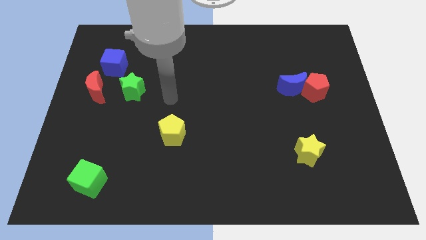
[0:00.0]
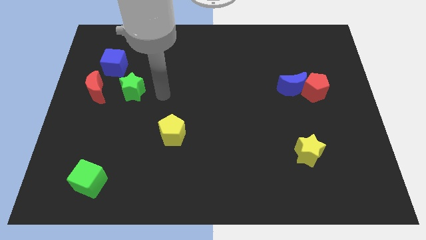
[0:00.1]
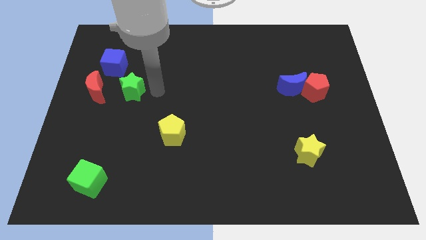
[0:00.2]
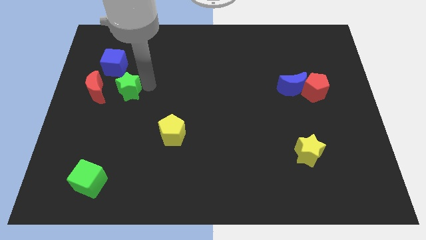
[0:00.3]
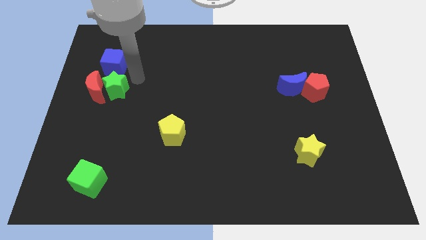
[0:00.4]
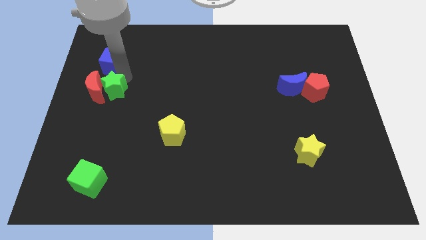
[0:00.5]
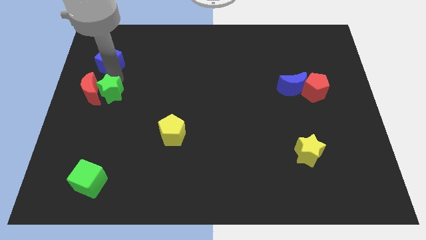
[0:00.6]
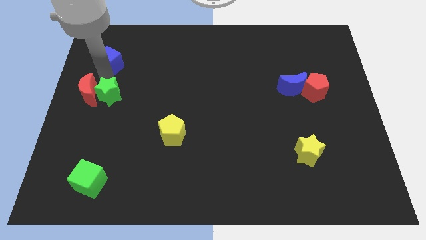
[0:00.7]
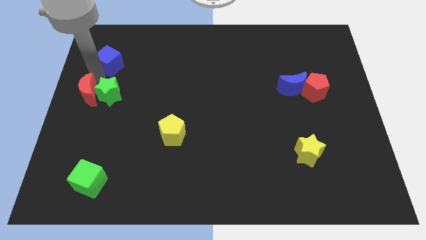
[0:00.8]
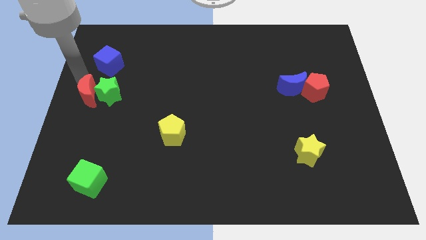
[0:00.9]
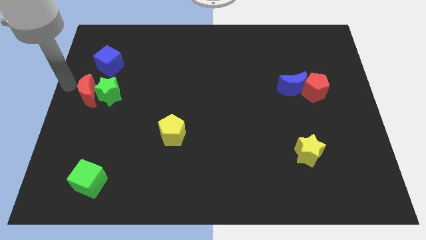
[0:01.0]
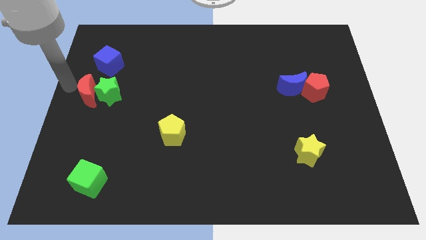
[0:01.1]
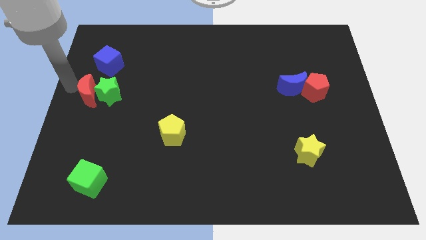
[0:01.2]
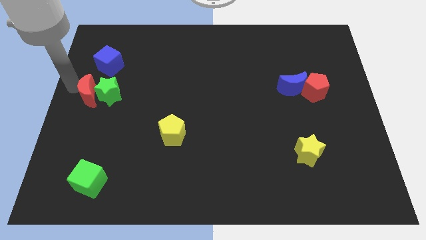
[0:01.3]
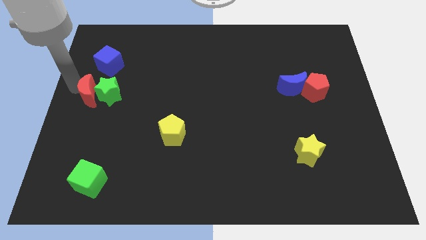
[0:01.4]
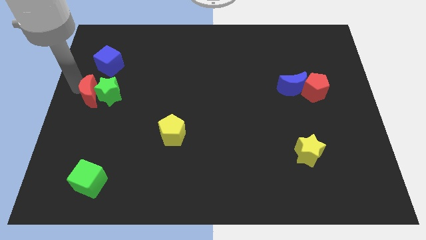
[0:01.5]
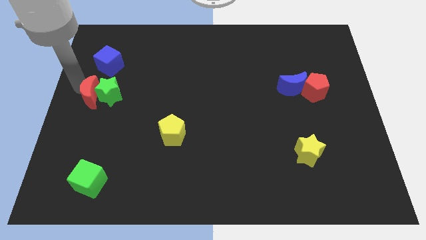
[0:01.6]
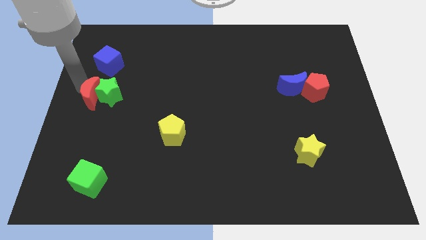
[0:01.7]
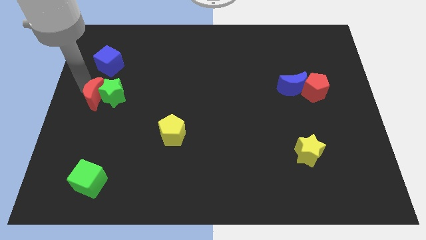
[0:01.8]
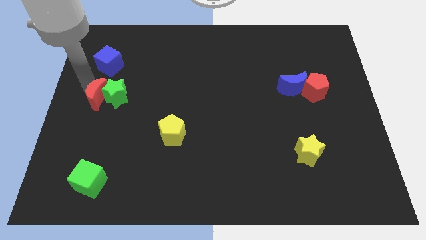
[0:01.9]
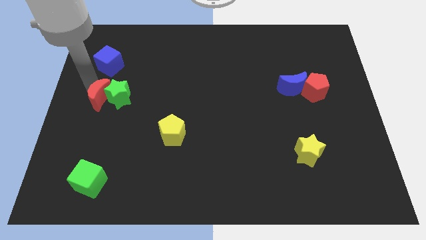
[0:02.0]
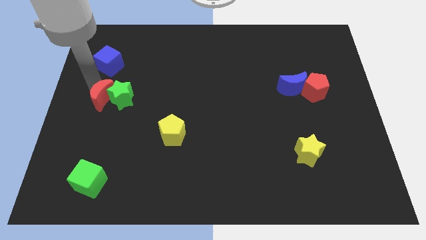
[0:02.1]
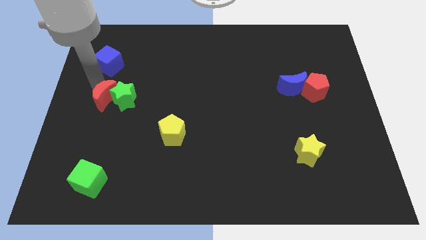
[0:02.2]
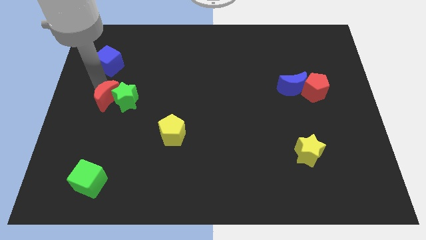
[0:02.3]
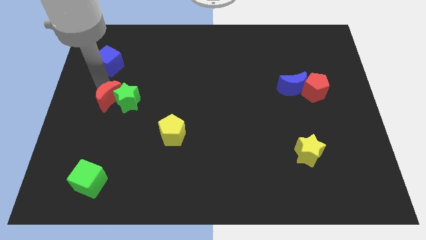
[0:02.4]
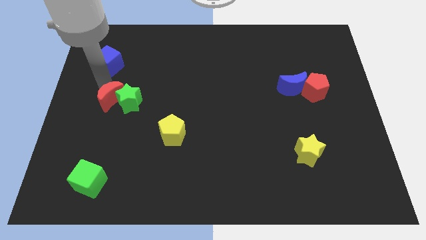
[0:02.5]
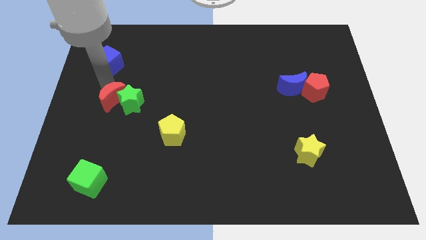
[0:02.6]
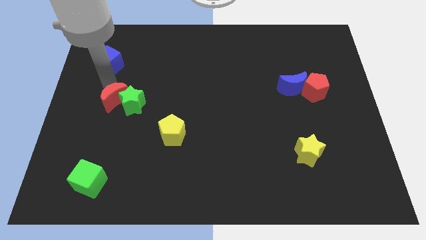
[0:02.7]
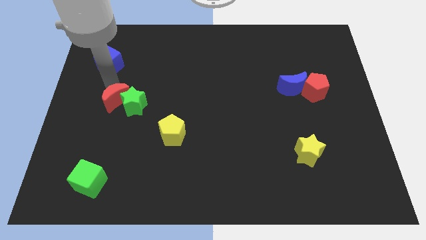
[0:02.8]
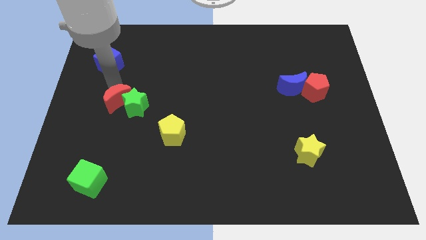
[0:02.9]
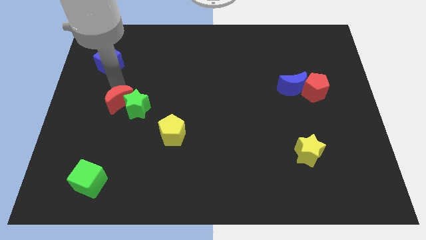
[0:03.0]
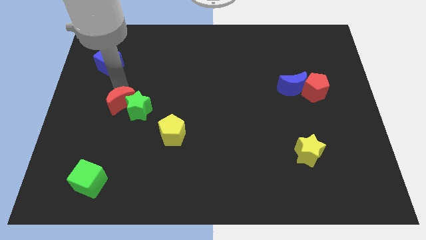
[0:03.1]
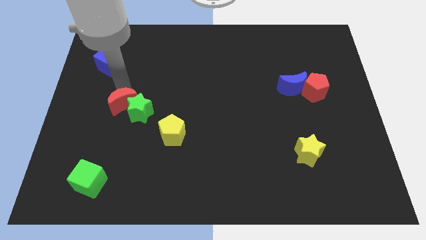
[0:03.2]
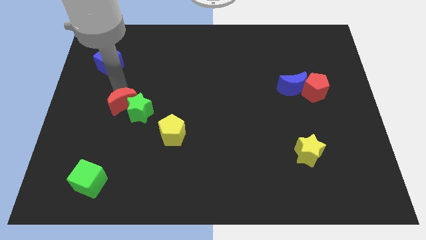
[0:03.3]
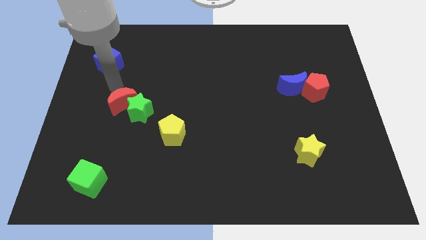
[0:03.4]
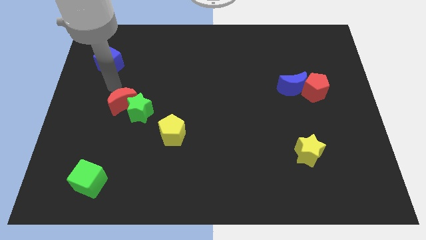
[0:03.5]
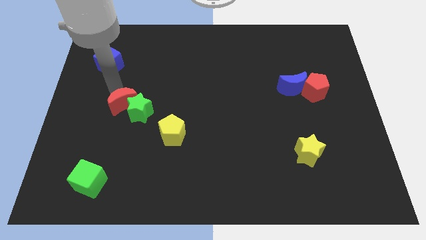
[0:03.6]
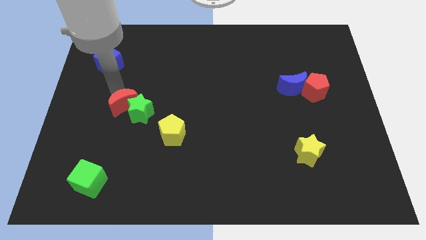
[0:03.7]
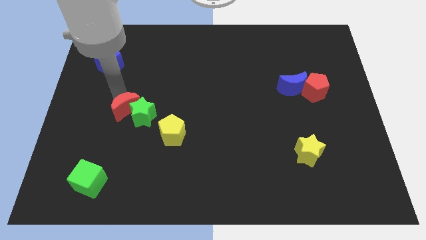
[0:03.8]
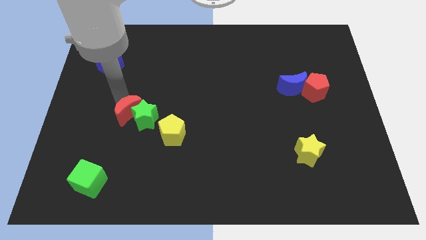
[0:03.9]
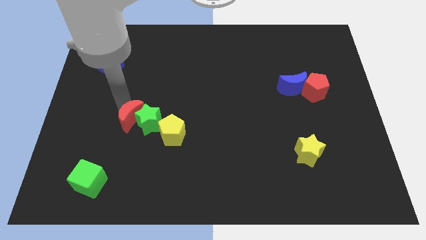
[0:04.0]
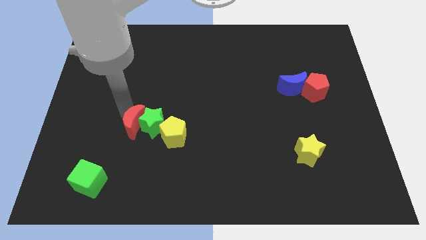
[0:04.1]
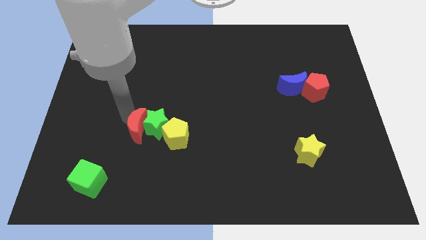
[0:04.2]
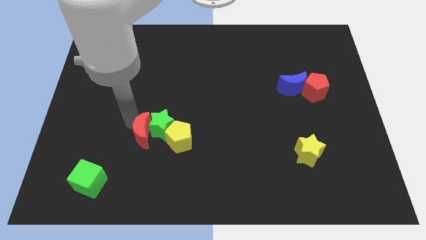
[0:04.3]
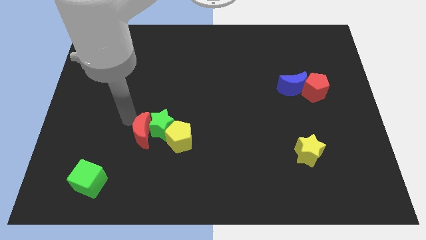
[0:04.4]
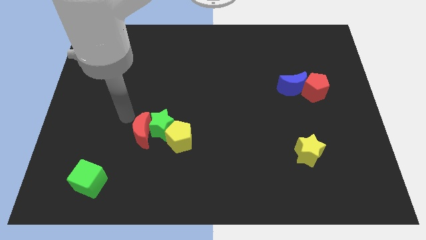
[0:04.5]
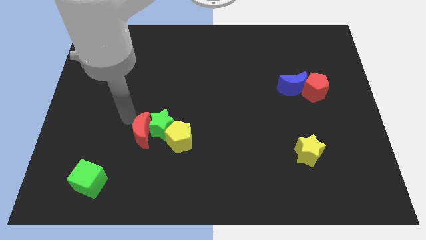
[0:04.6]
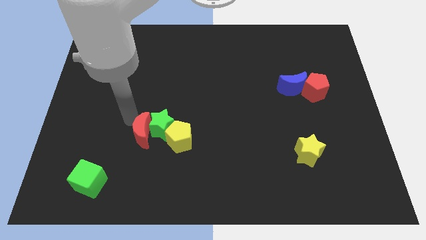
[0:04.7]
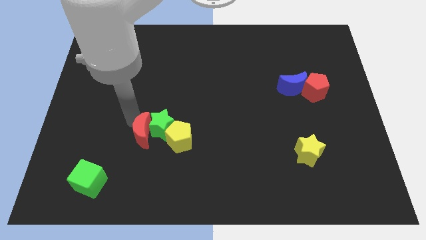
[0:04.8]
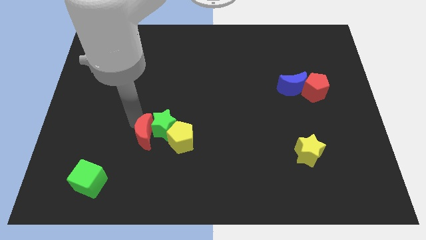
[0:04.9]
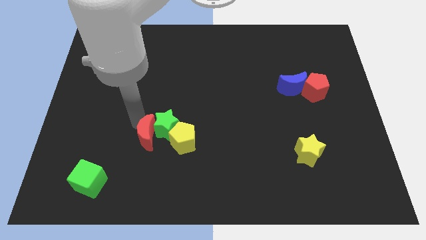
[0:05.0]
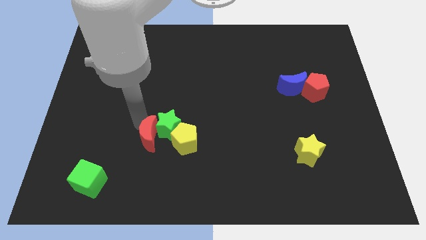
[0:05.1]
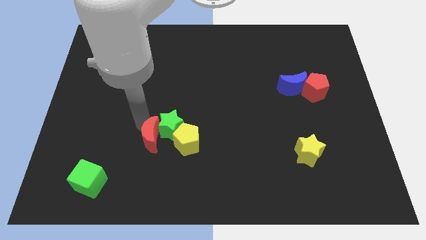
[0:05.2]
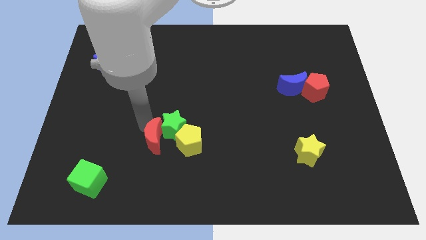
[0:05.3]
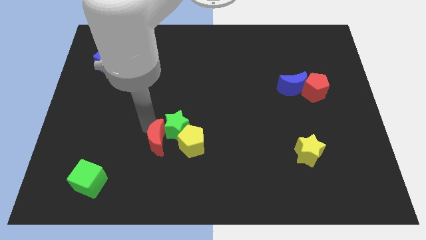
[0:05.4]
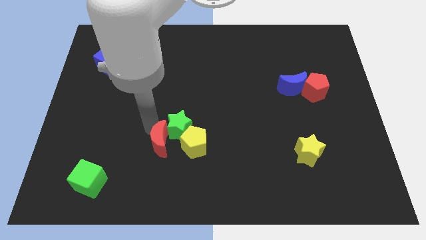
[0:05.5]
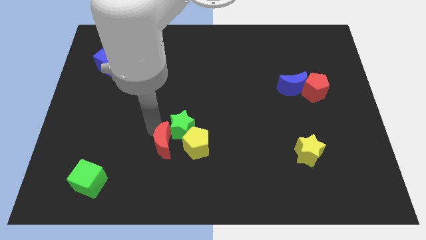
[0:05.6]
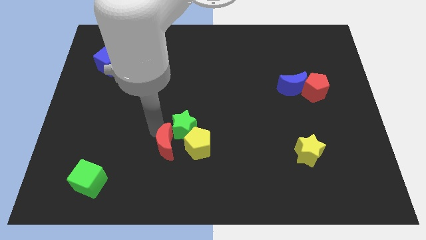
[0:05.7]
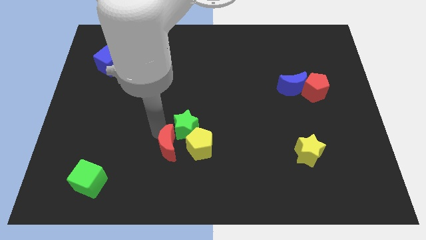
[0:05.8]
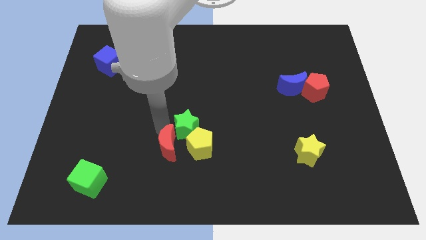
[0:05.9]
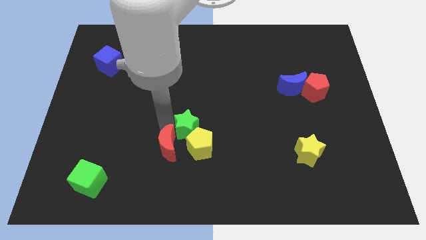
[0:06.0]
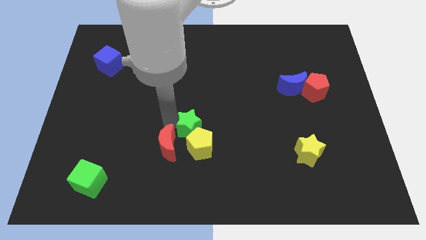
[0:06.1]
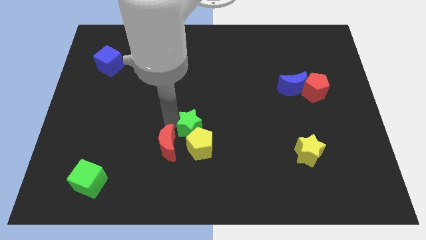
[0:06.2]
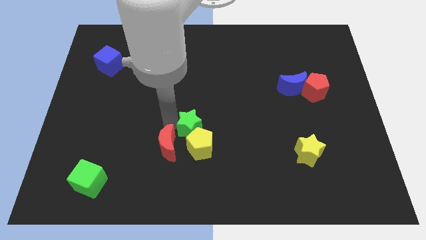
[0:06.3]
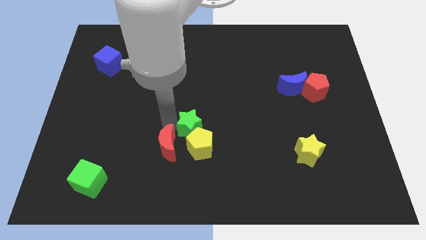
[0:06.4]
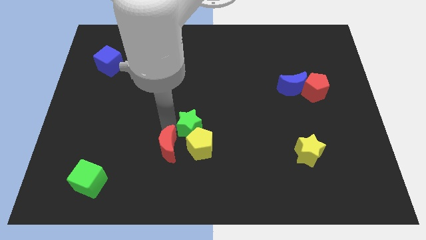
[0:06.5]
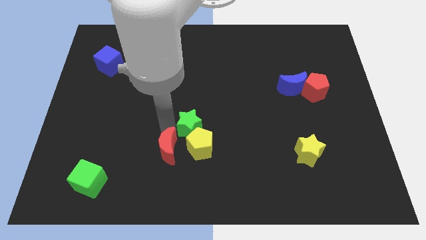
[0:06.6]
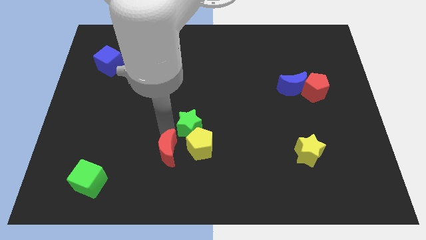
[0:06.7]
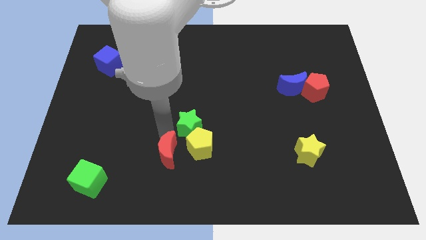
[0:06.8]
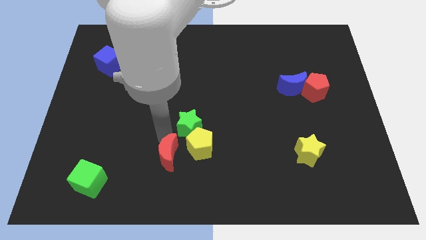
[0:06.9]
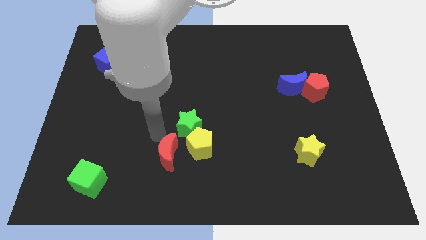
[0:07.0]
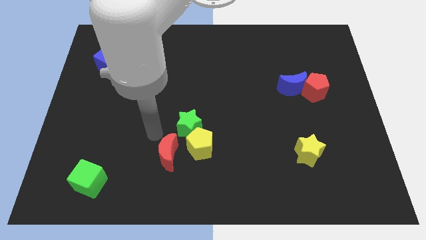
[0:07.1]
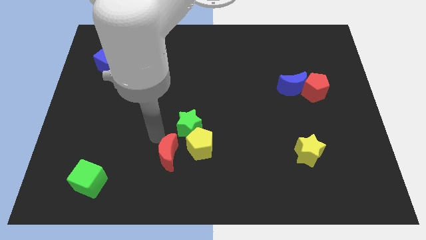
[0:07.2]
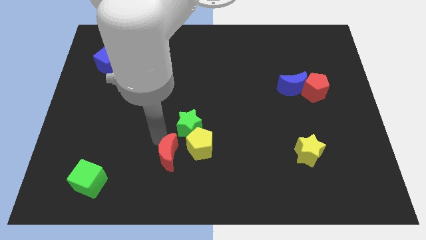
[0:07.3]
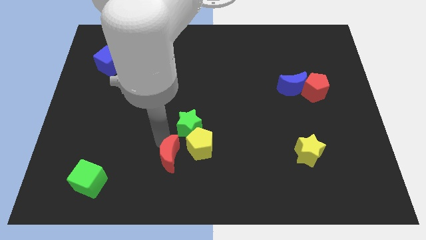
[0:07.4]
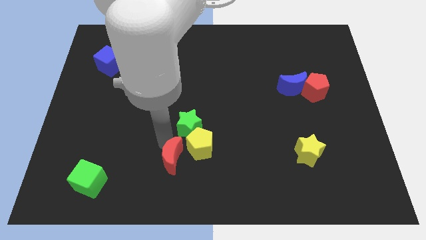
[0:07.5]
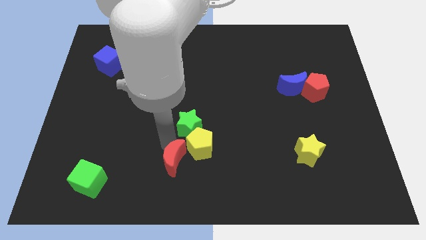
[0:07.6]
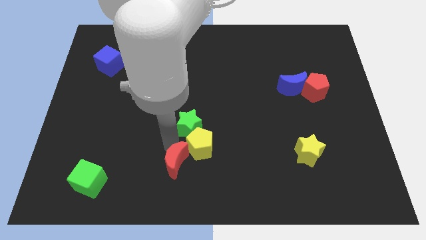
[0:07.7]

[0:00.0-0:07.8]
push the red moon to the bottom
